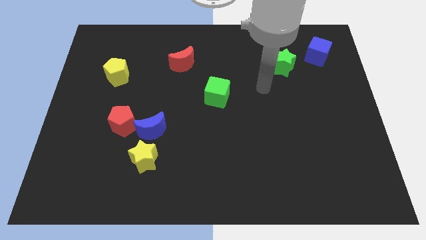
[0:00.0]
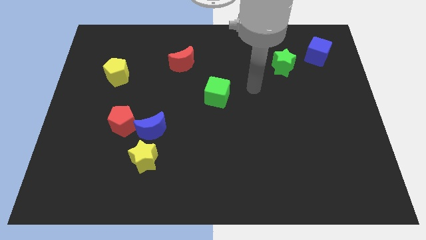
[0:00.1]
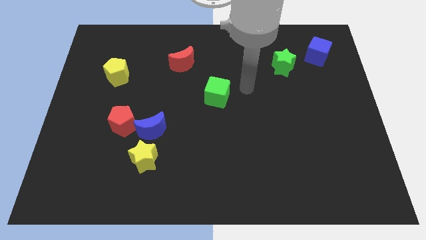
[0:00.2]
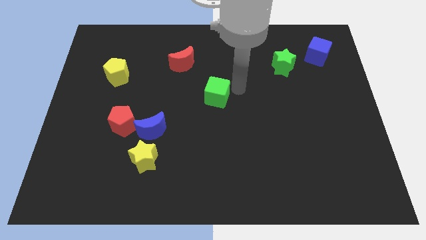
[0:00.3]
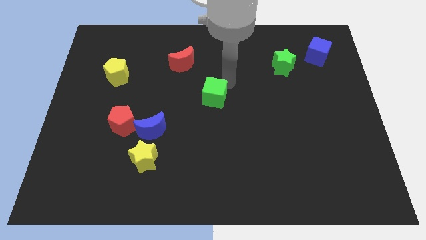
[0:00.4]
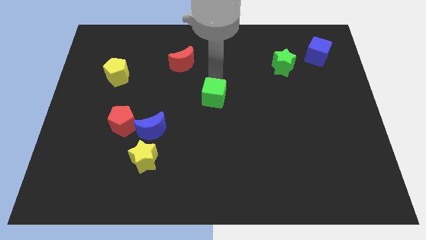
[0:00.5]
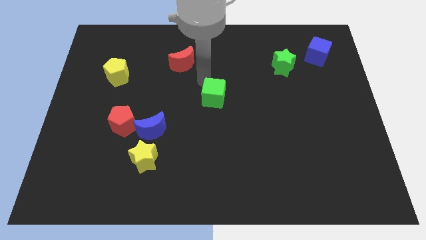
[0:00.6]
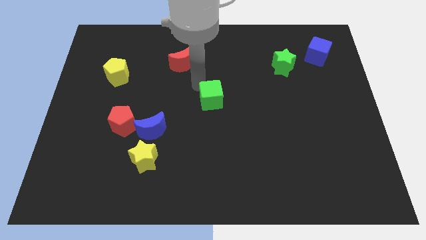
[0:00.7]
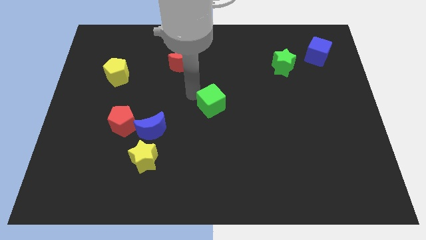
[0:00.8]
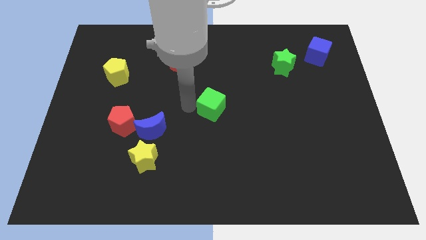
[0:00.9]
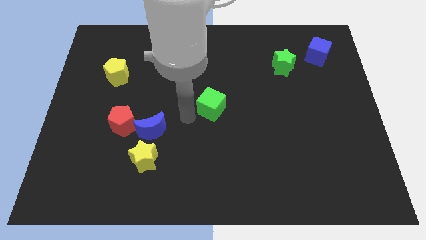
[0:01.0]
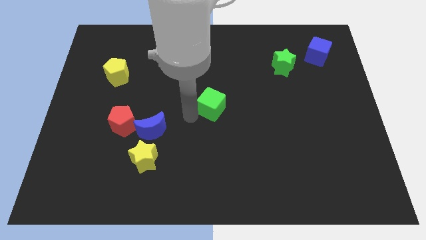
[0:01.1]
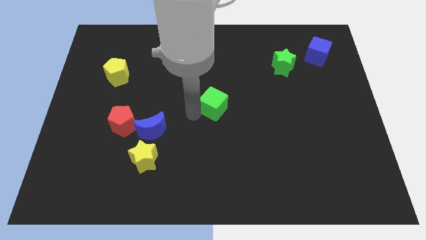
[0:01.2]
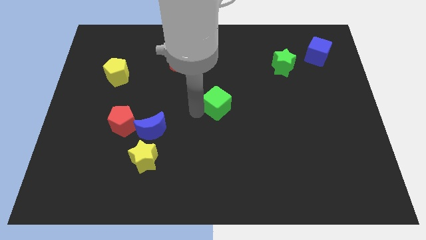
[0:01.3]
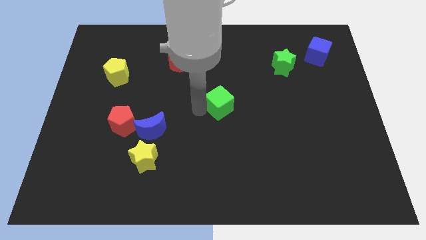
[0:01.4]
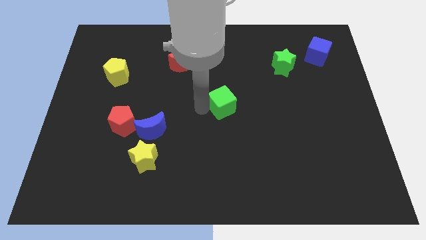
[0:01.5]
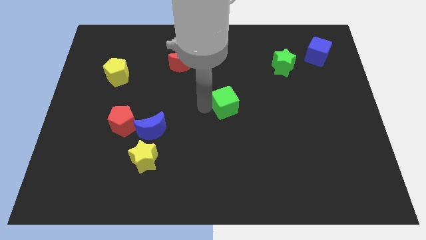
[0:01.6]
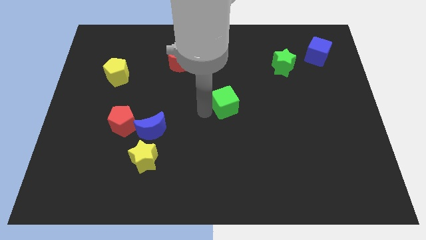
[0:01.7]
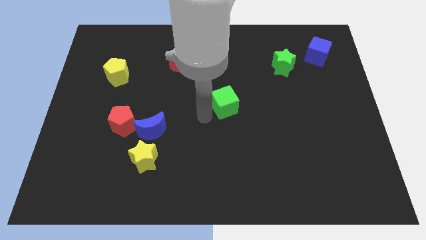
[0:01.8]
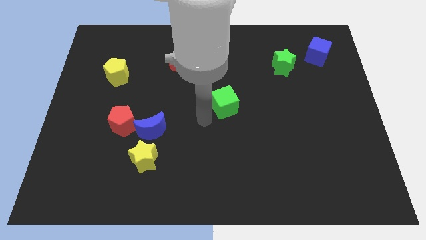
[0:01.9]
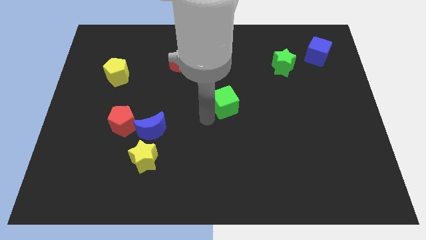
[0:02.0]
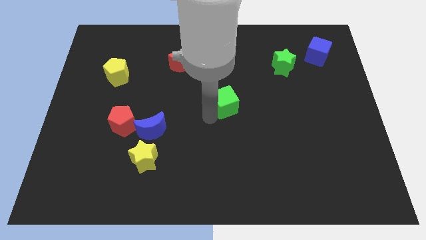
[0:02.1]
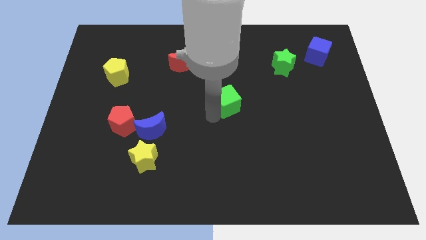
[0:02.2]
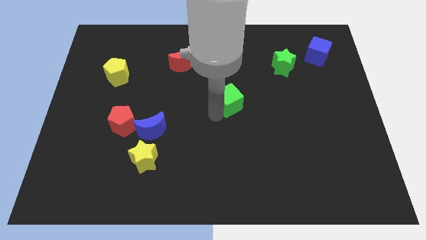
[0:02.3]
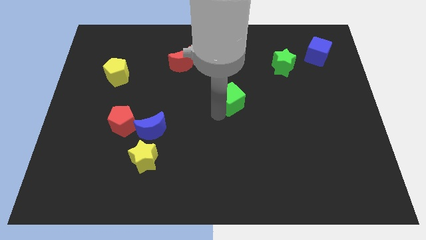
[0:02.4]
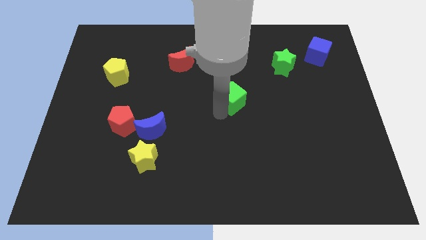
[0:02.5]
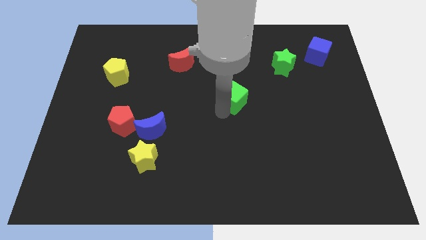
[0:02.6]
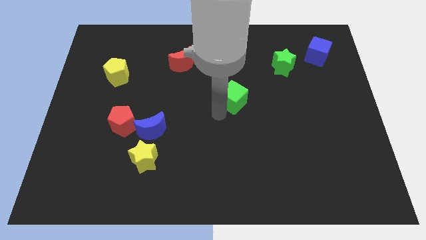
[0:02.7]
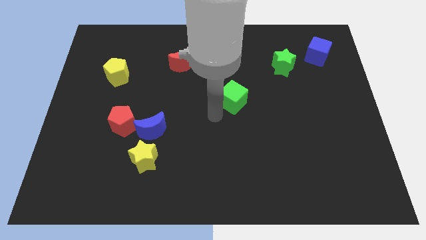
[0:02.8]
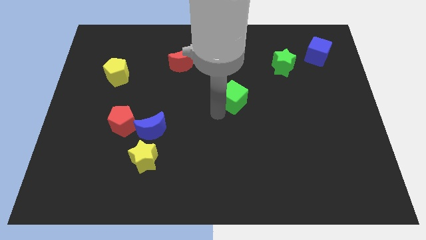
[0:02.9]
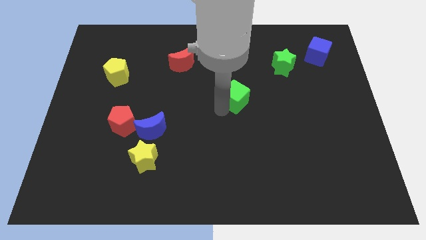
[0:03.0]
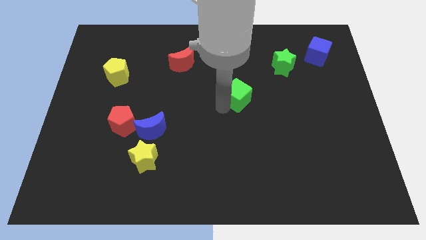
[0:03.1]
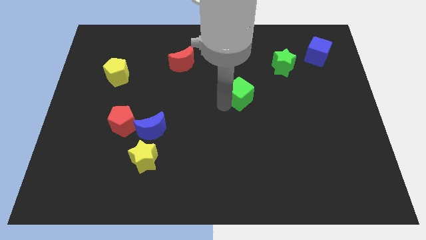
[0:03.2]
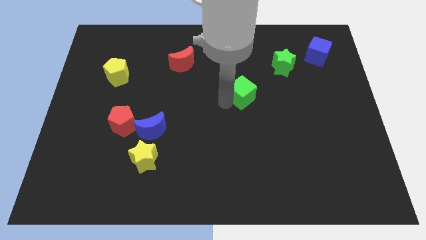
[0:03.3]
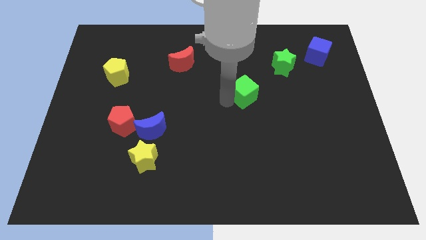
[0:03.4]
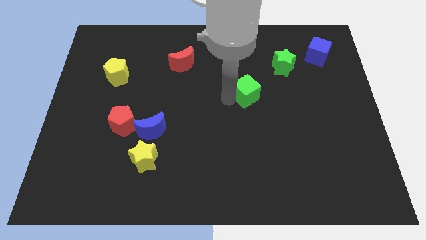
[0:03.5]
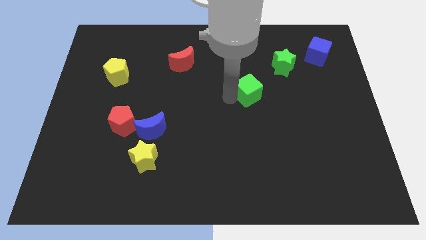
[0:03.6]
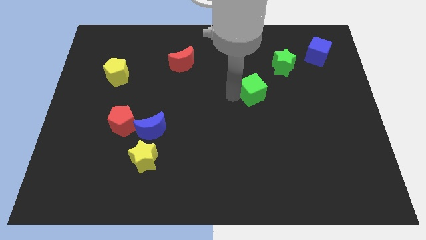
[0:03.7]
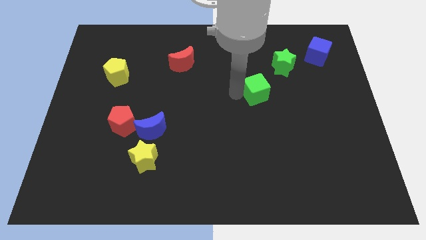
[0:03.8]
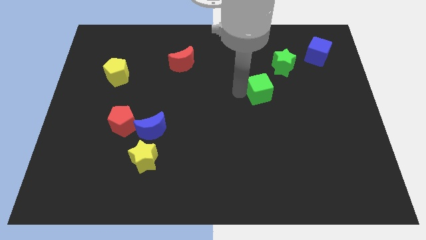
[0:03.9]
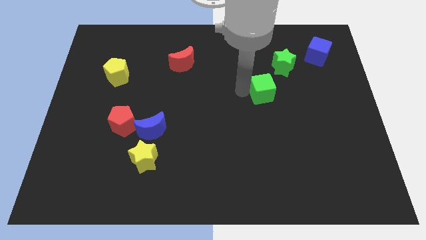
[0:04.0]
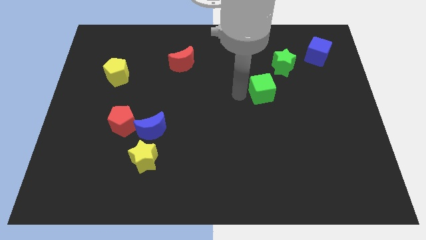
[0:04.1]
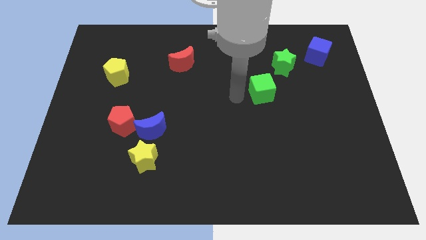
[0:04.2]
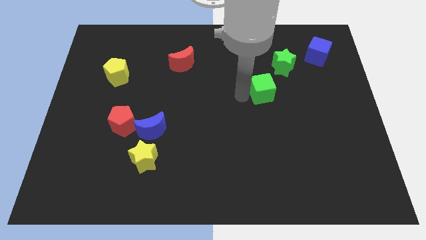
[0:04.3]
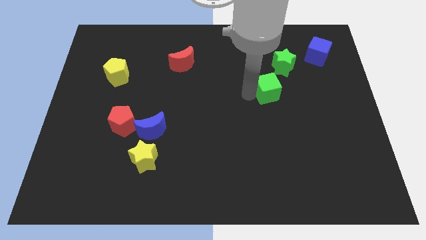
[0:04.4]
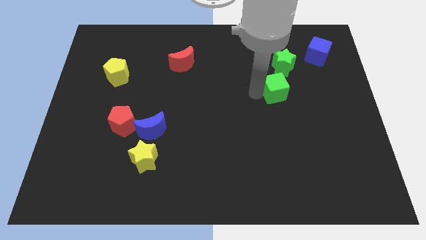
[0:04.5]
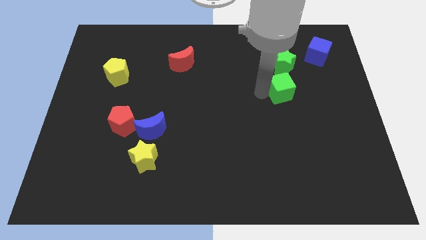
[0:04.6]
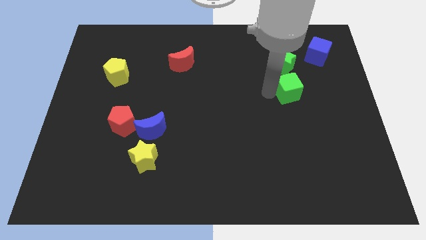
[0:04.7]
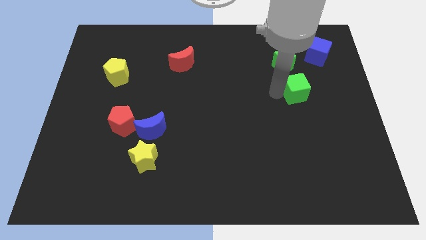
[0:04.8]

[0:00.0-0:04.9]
put the green cube to the bottom right of the green star

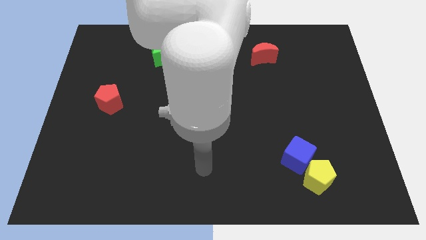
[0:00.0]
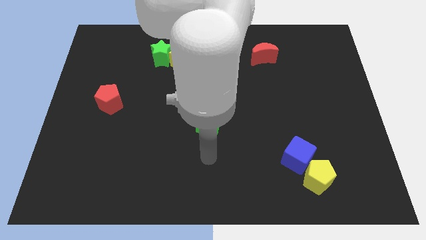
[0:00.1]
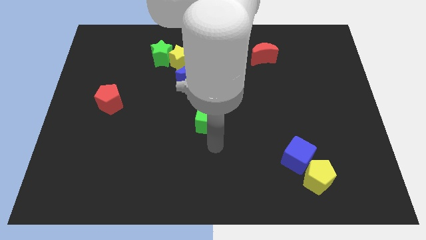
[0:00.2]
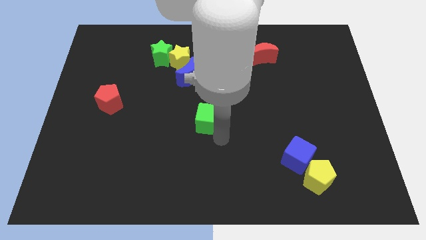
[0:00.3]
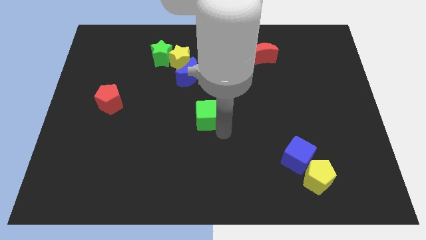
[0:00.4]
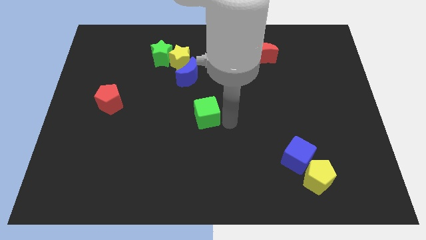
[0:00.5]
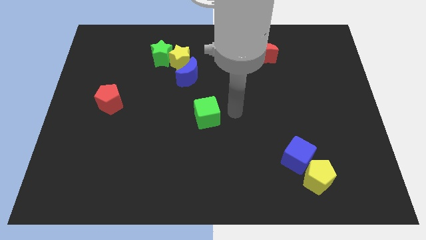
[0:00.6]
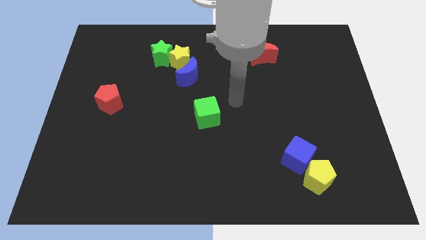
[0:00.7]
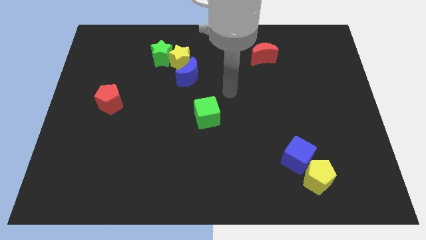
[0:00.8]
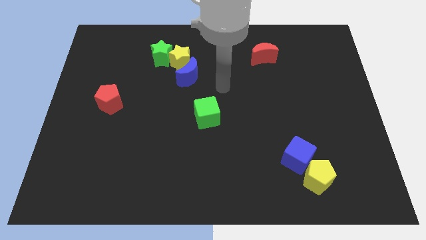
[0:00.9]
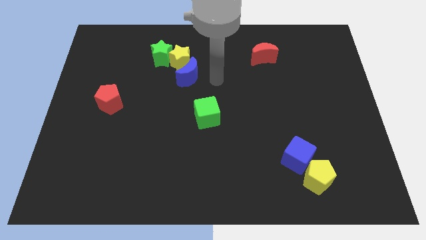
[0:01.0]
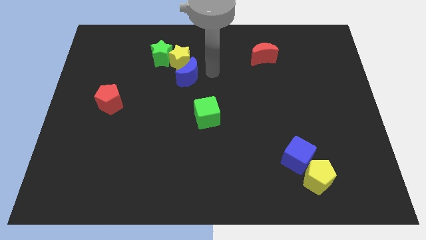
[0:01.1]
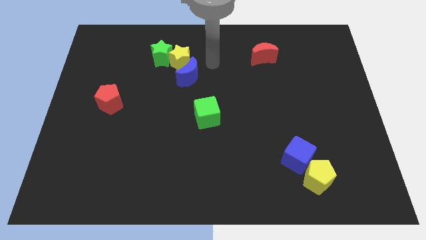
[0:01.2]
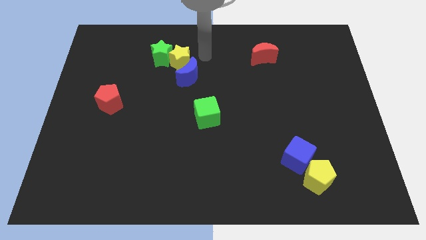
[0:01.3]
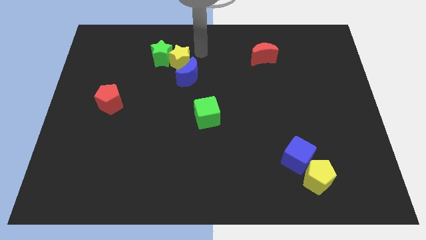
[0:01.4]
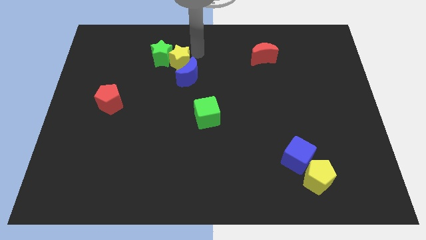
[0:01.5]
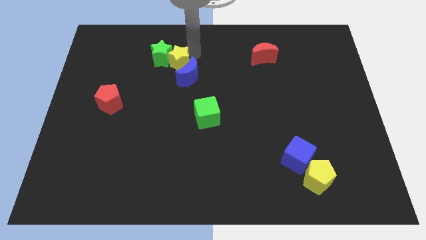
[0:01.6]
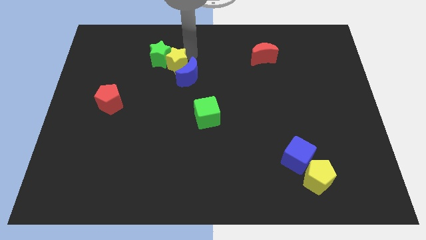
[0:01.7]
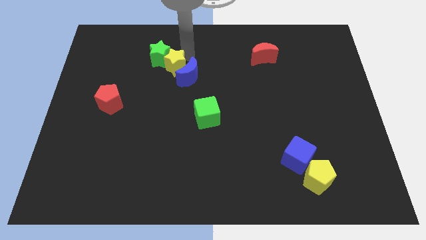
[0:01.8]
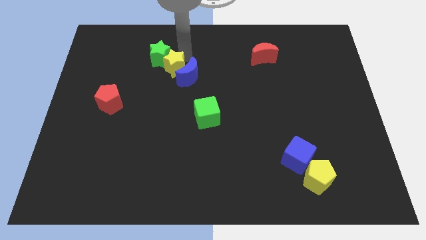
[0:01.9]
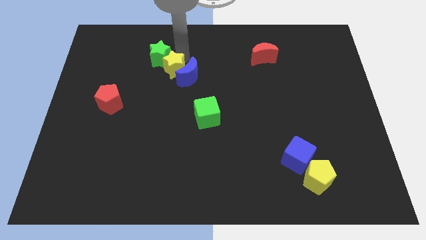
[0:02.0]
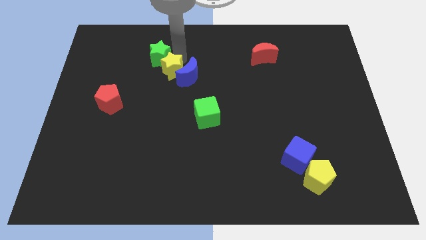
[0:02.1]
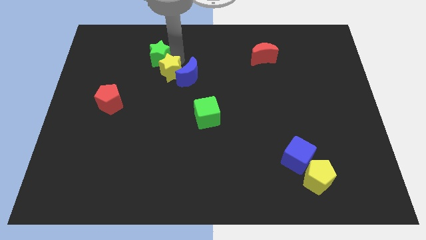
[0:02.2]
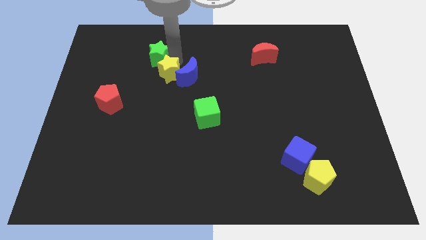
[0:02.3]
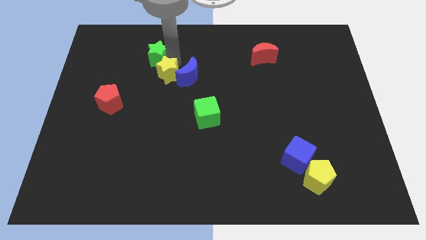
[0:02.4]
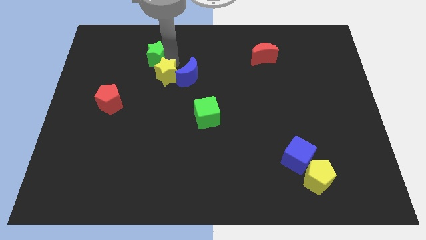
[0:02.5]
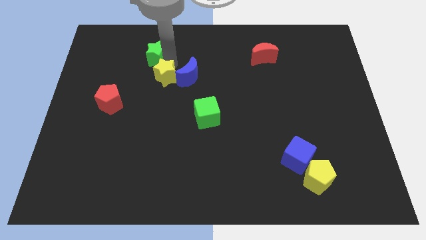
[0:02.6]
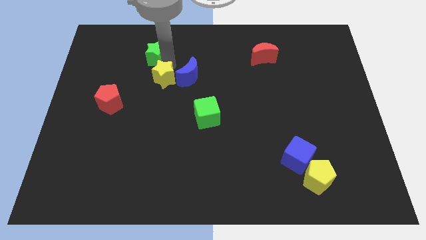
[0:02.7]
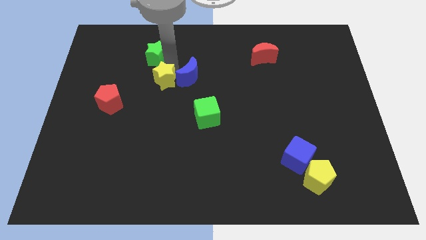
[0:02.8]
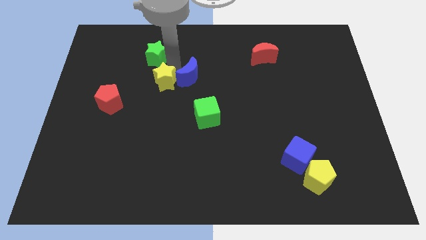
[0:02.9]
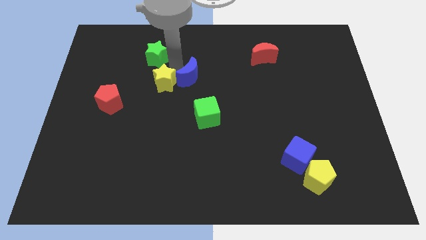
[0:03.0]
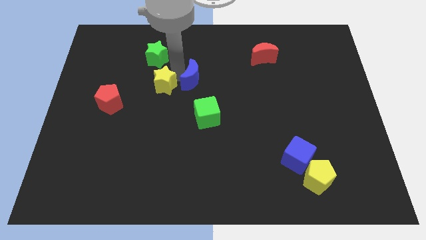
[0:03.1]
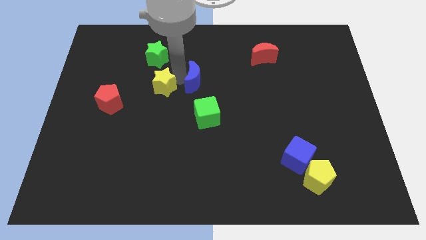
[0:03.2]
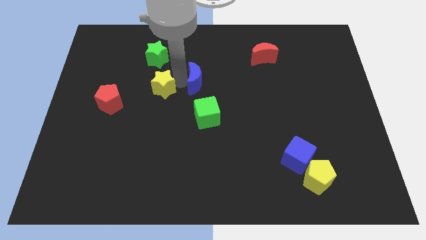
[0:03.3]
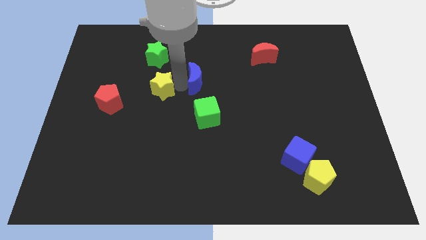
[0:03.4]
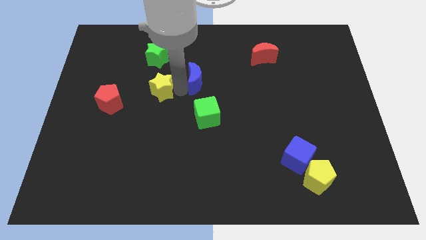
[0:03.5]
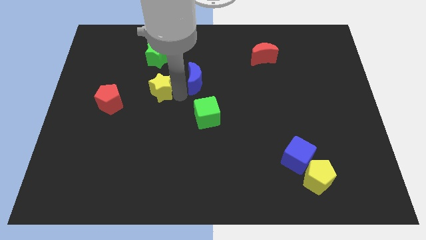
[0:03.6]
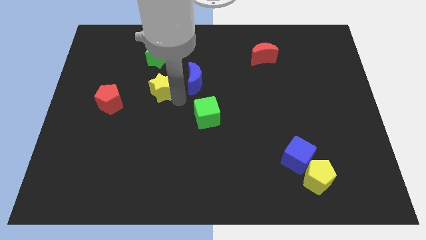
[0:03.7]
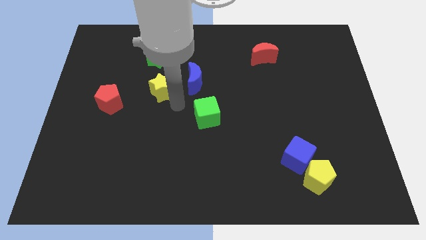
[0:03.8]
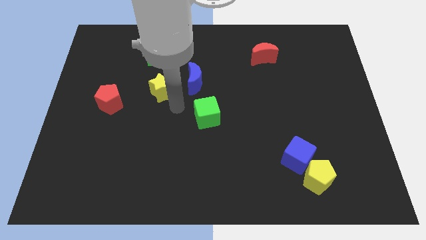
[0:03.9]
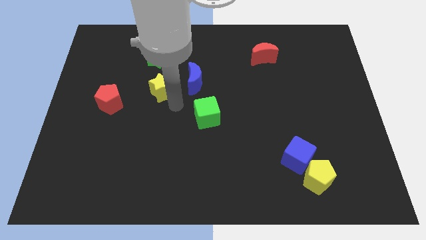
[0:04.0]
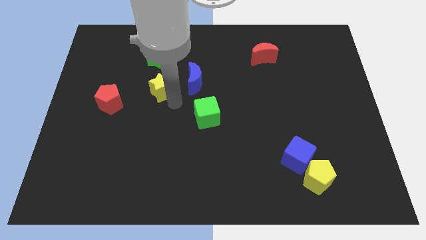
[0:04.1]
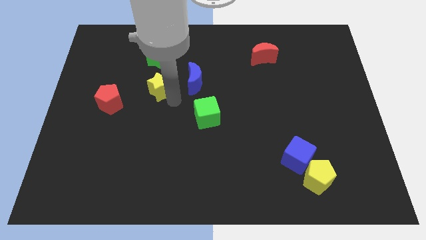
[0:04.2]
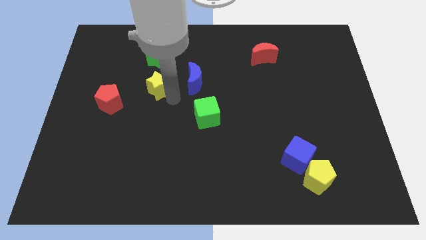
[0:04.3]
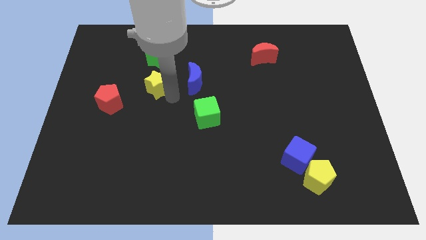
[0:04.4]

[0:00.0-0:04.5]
put the yellow star to the top right of the red pentagon
